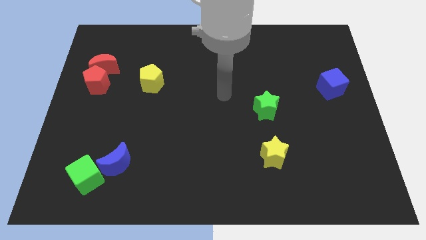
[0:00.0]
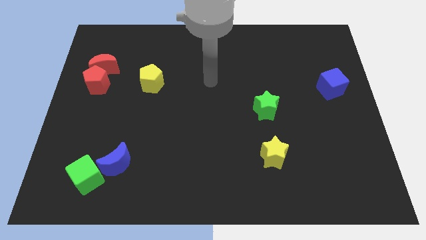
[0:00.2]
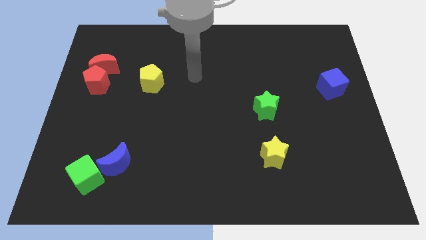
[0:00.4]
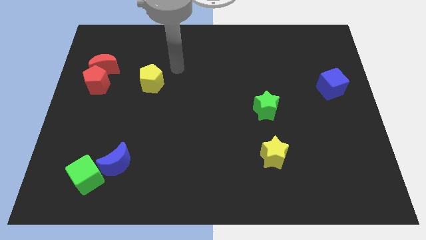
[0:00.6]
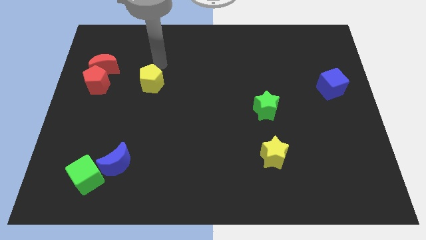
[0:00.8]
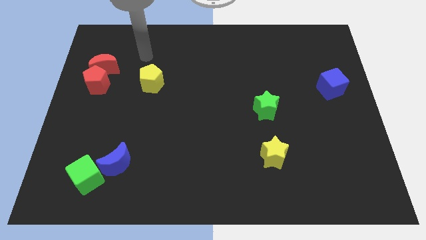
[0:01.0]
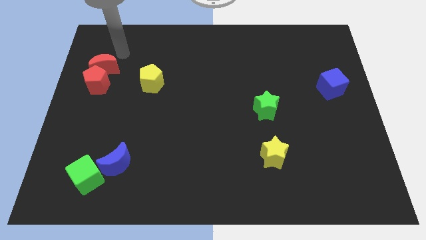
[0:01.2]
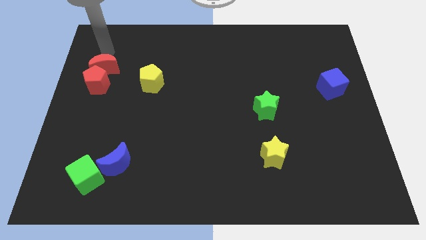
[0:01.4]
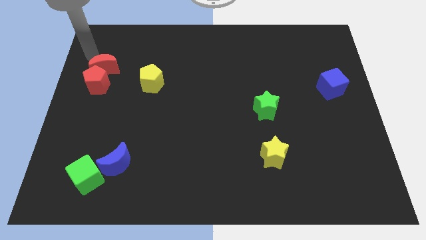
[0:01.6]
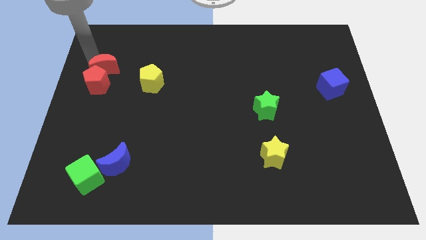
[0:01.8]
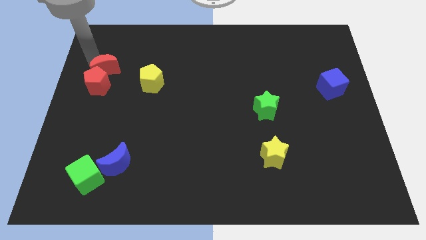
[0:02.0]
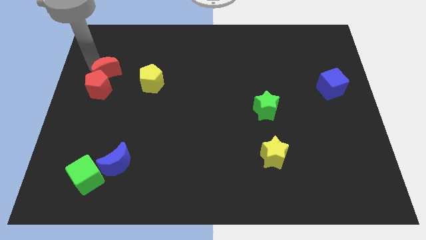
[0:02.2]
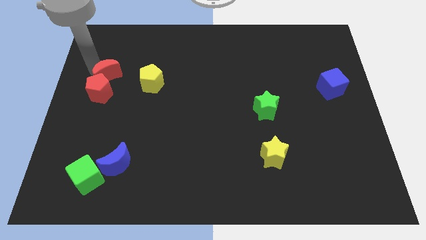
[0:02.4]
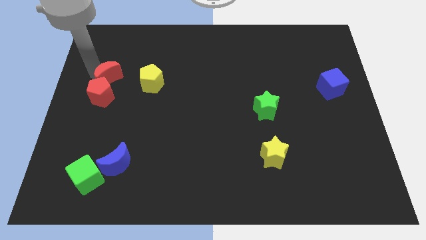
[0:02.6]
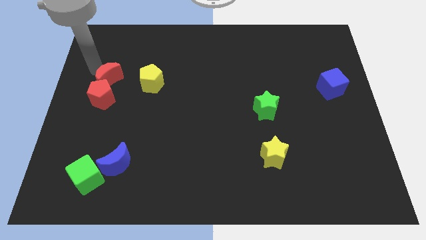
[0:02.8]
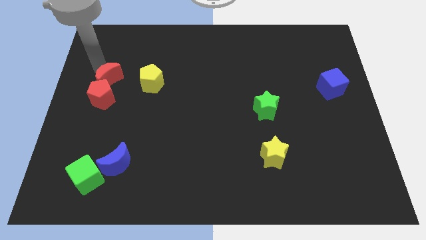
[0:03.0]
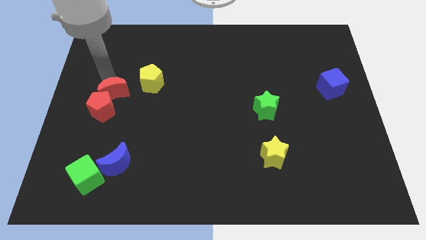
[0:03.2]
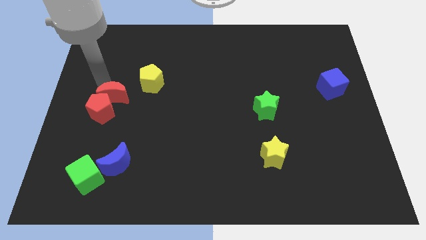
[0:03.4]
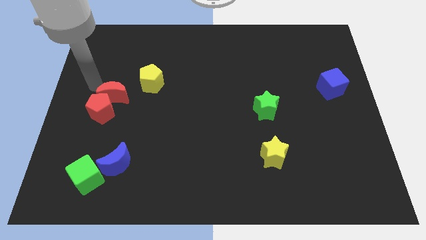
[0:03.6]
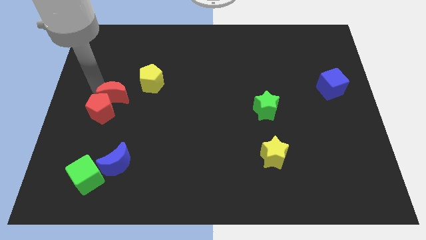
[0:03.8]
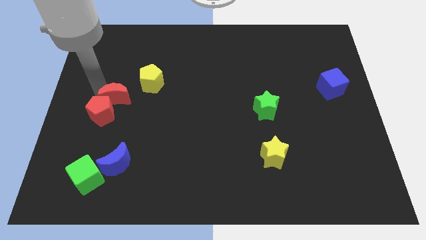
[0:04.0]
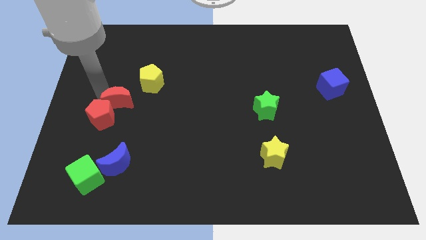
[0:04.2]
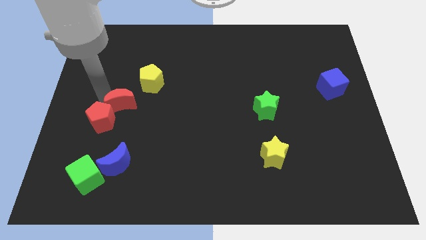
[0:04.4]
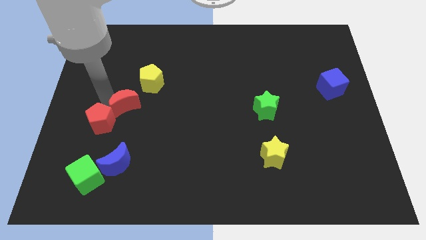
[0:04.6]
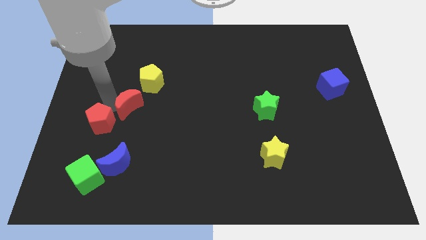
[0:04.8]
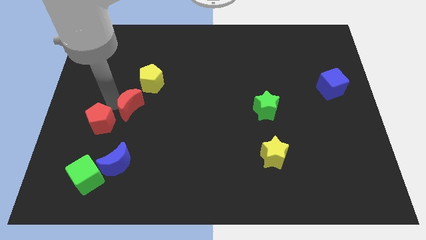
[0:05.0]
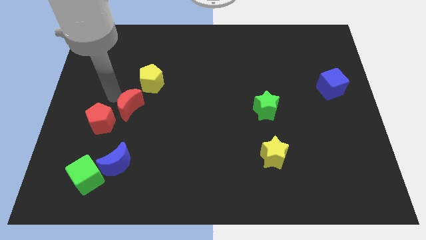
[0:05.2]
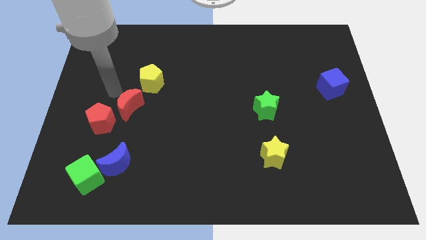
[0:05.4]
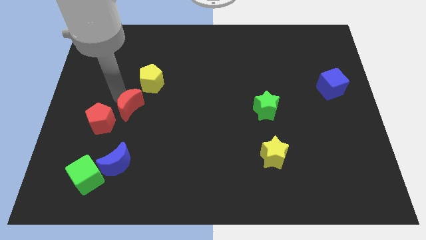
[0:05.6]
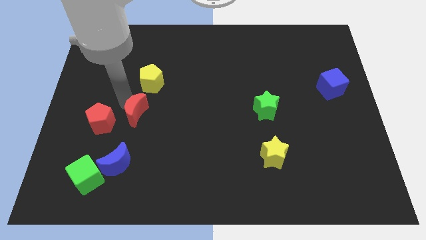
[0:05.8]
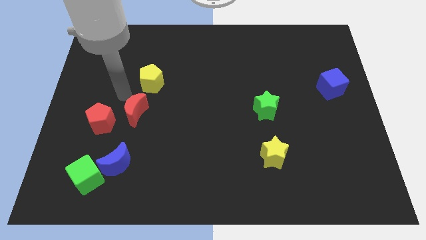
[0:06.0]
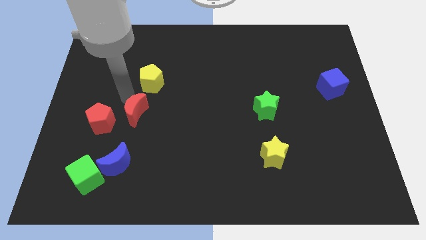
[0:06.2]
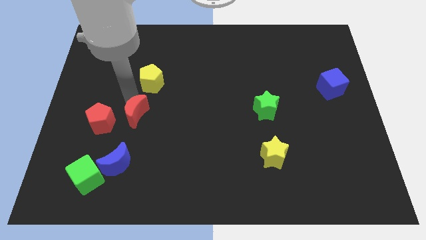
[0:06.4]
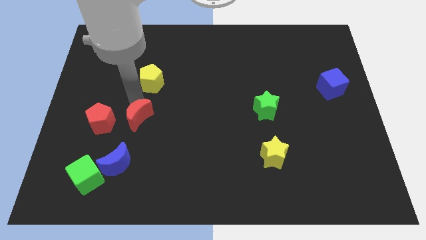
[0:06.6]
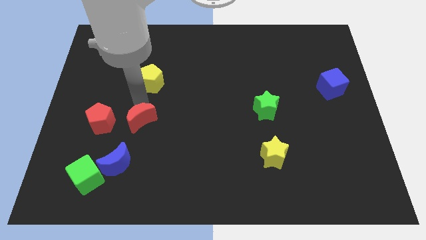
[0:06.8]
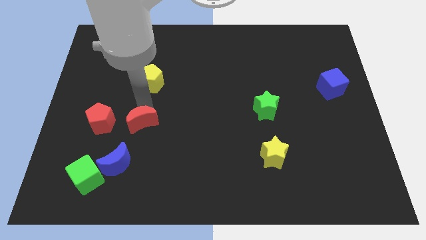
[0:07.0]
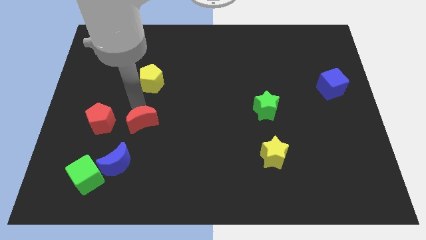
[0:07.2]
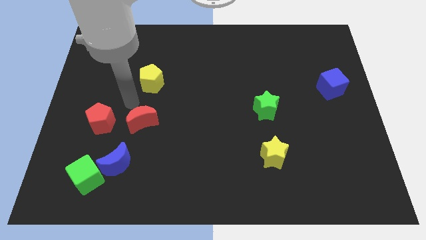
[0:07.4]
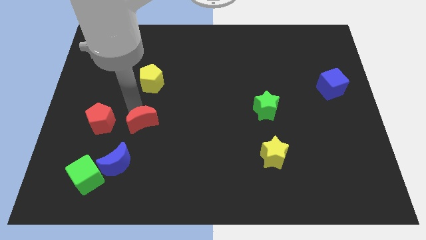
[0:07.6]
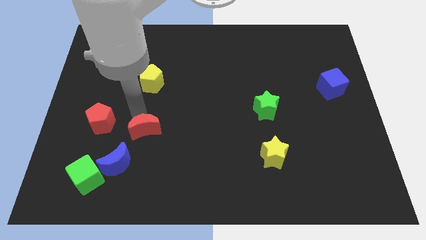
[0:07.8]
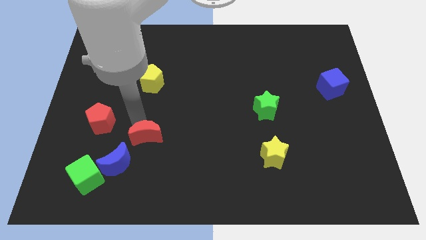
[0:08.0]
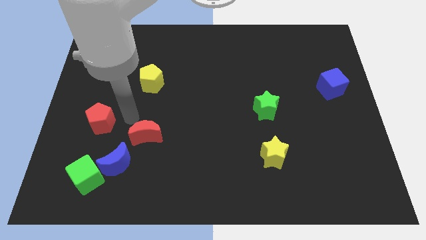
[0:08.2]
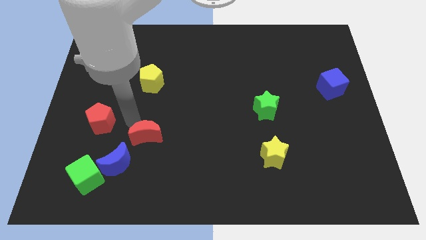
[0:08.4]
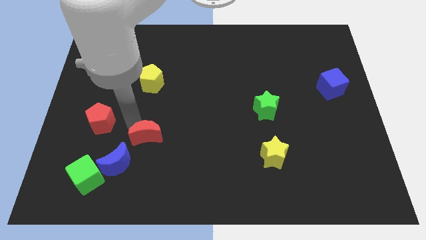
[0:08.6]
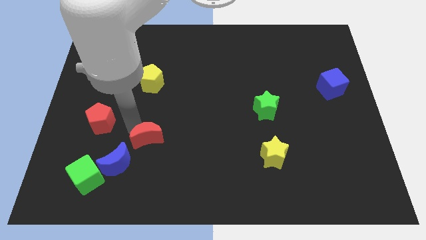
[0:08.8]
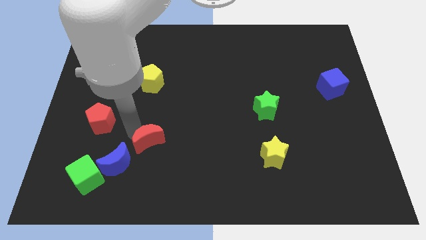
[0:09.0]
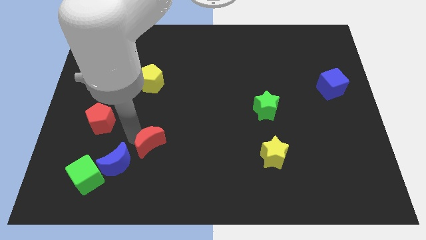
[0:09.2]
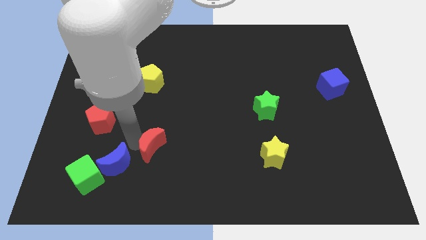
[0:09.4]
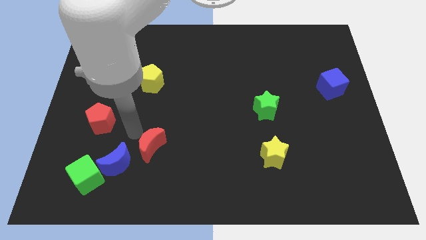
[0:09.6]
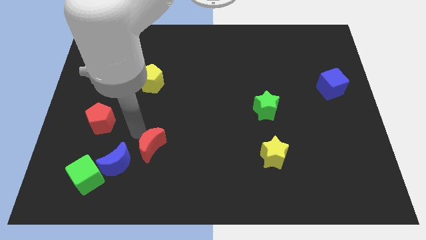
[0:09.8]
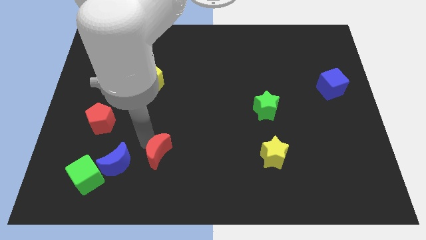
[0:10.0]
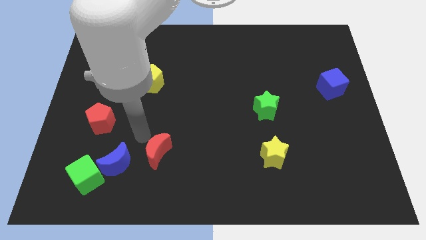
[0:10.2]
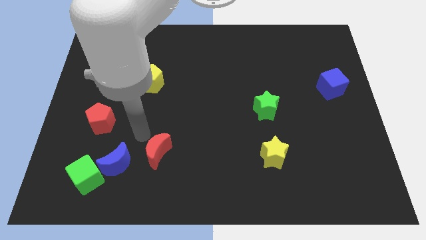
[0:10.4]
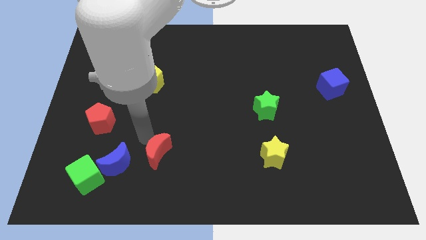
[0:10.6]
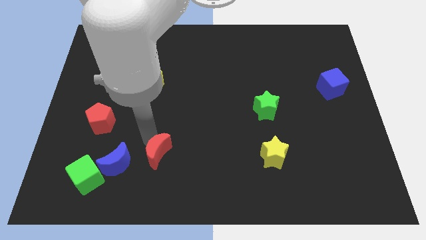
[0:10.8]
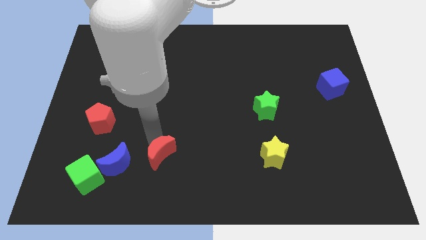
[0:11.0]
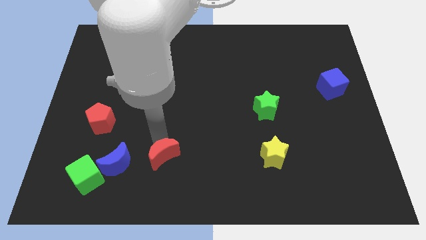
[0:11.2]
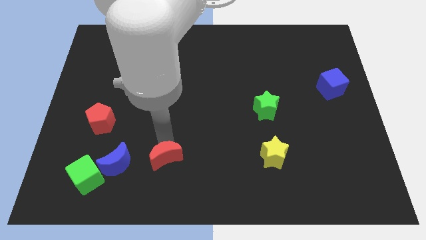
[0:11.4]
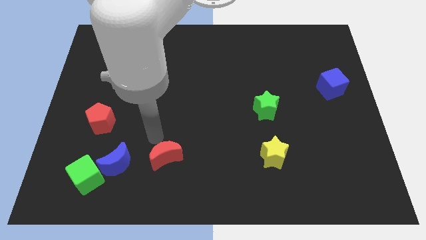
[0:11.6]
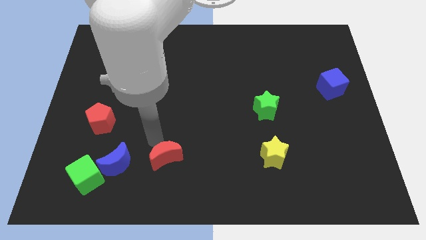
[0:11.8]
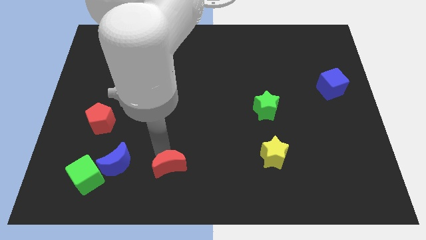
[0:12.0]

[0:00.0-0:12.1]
push the red moon to the bottom
